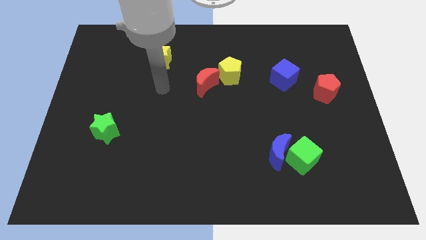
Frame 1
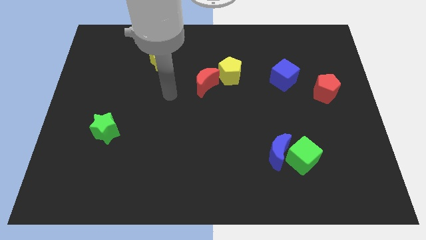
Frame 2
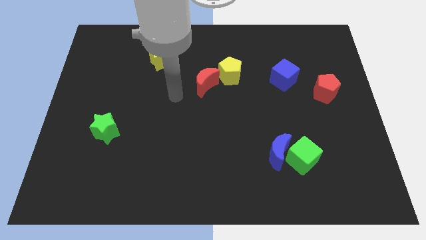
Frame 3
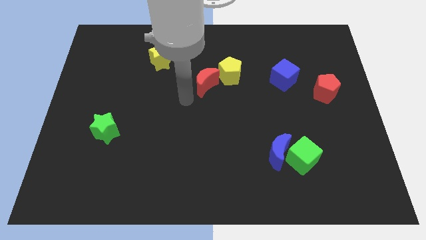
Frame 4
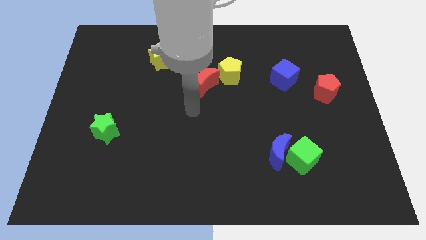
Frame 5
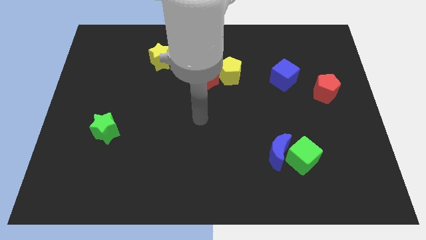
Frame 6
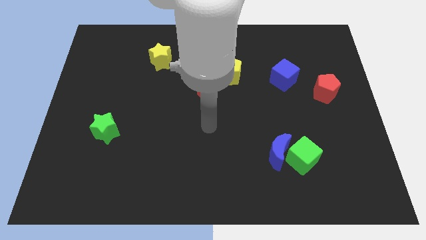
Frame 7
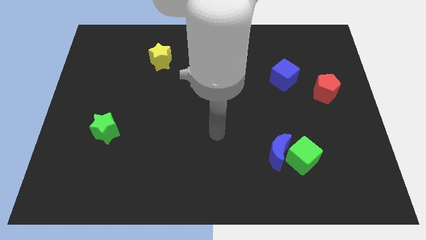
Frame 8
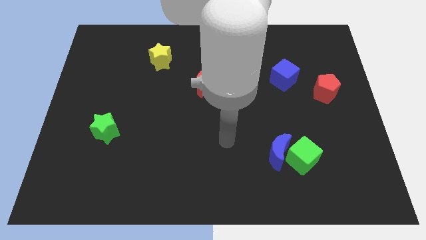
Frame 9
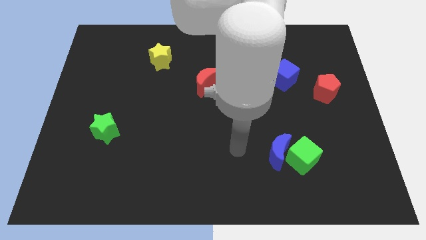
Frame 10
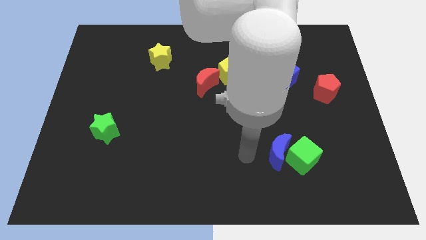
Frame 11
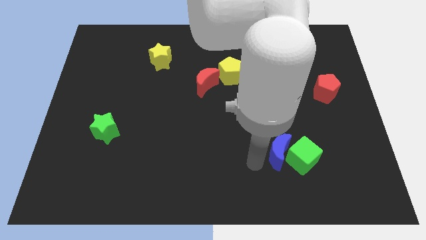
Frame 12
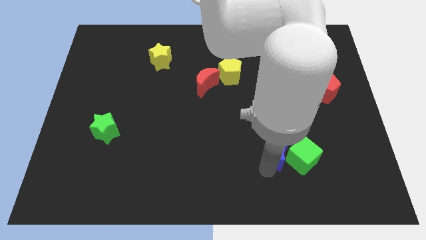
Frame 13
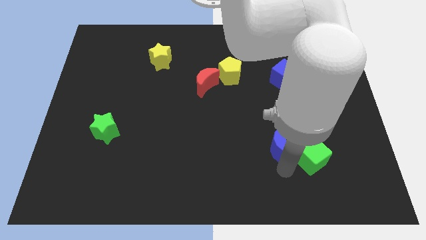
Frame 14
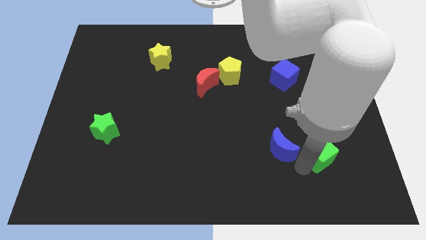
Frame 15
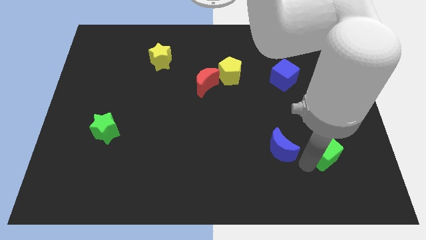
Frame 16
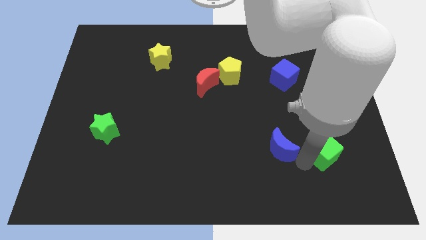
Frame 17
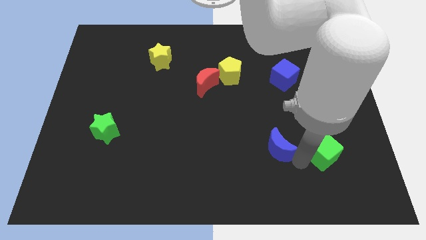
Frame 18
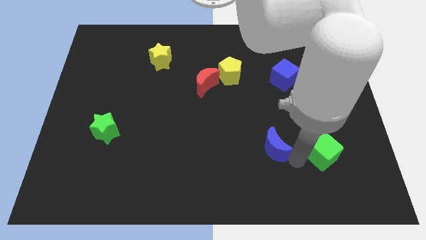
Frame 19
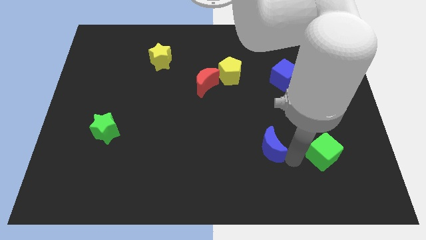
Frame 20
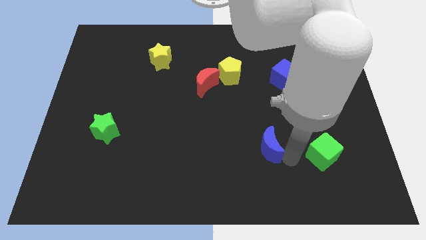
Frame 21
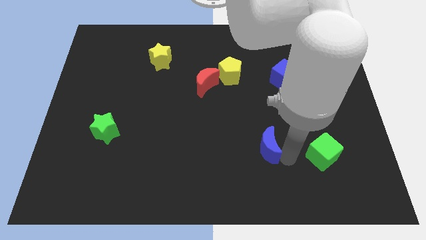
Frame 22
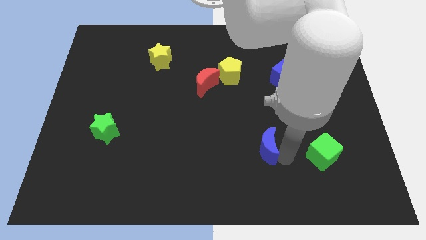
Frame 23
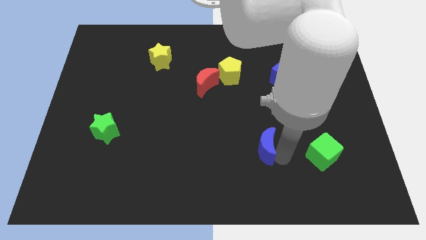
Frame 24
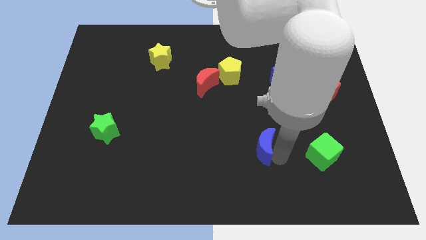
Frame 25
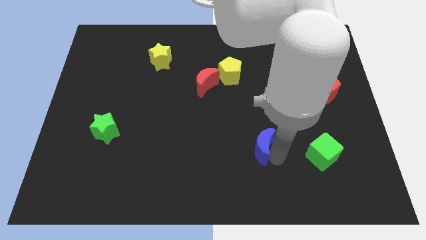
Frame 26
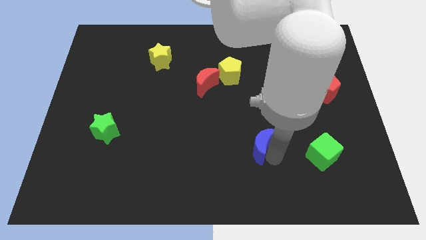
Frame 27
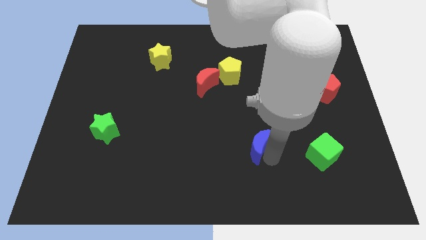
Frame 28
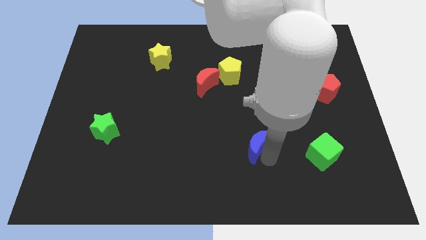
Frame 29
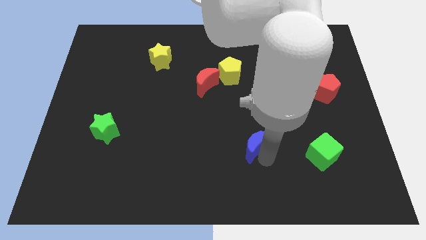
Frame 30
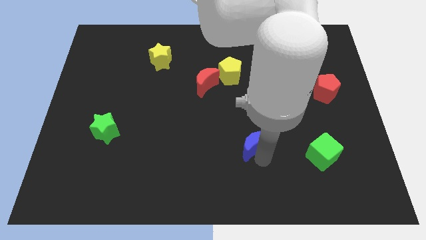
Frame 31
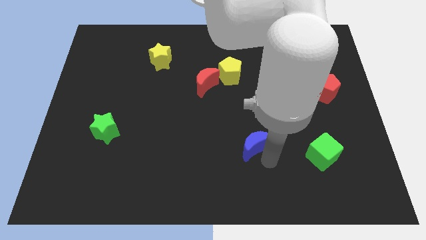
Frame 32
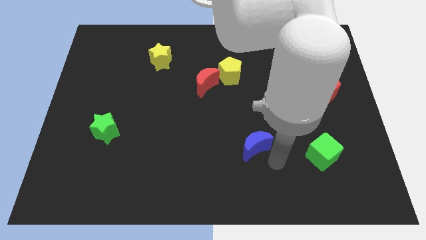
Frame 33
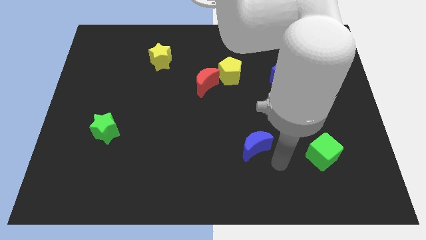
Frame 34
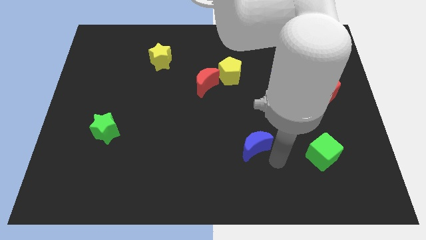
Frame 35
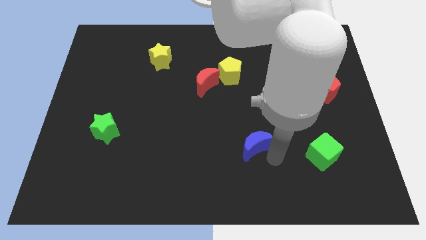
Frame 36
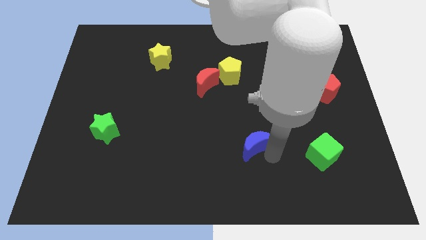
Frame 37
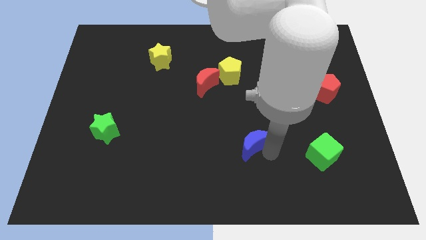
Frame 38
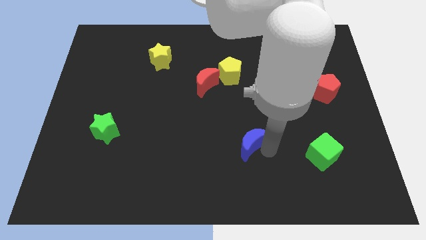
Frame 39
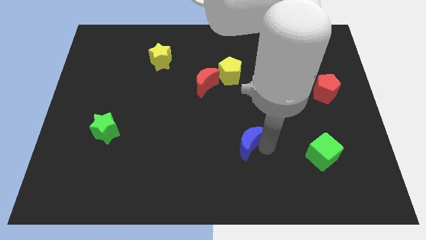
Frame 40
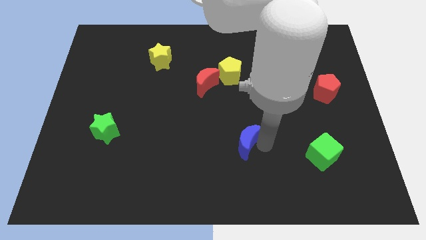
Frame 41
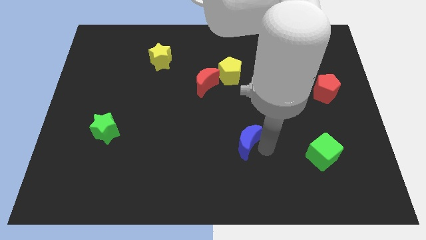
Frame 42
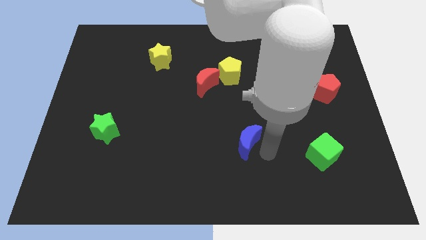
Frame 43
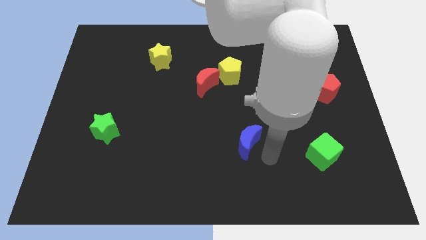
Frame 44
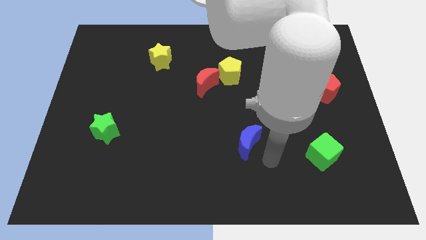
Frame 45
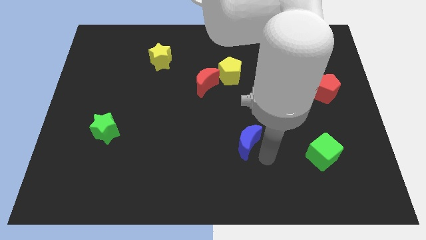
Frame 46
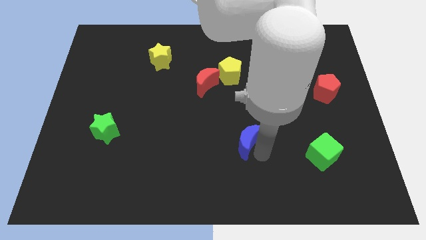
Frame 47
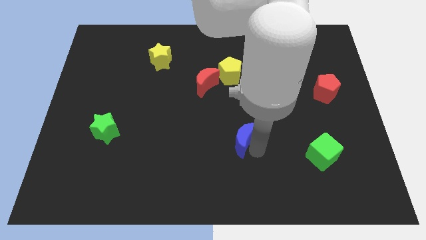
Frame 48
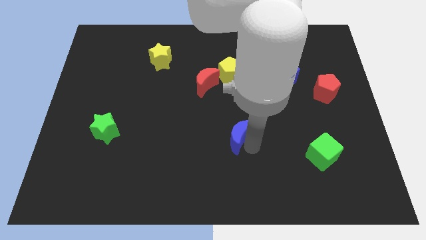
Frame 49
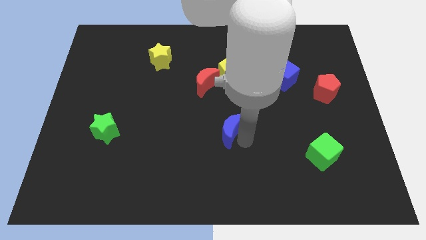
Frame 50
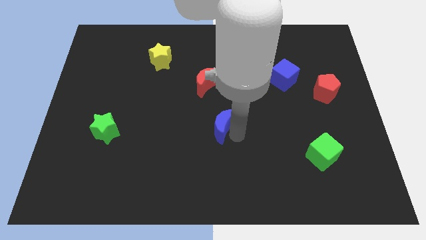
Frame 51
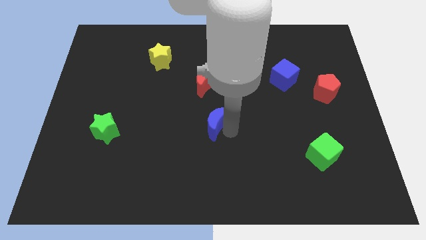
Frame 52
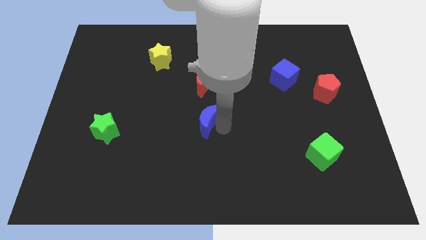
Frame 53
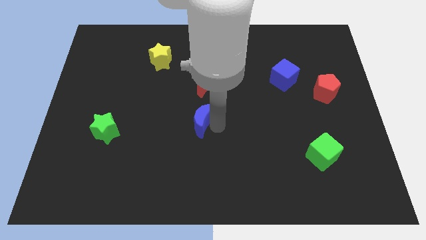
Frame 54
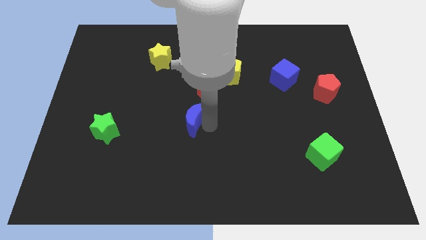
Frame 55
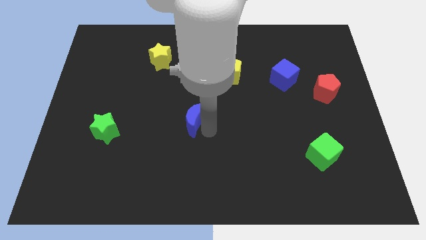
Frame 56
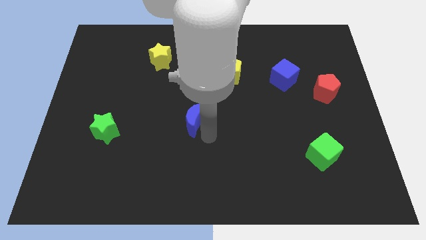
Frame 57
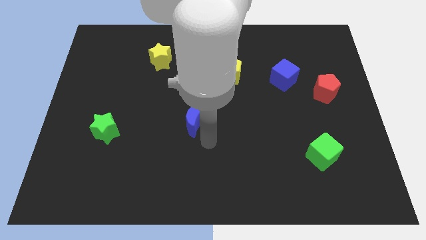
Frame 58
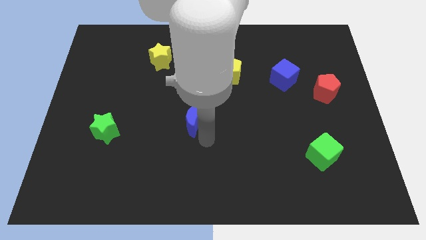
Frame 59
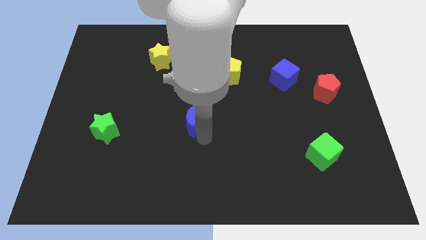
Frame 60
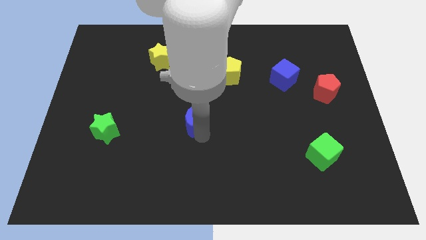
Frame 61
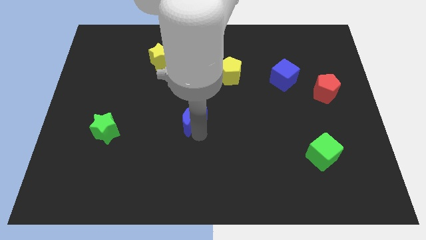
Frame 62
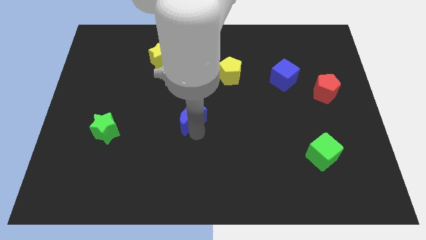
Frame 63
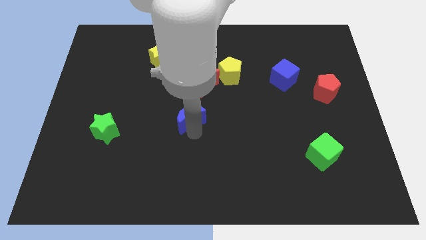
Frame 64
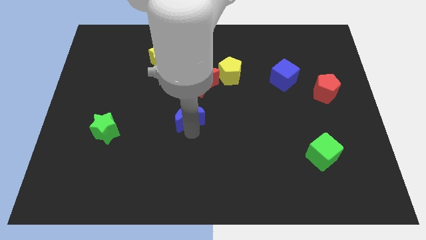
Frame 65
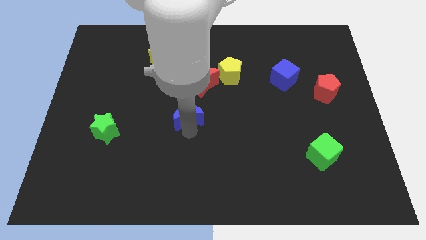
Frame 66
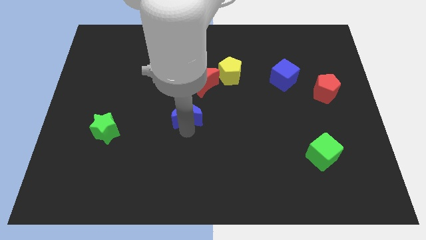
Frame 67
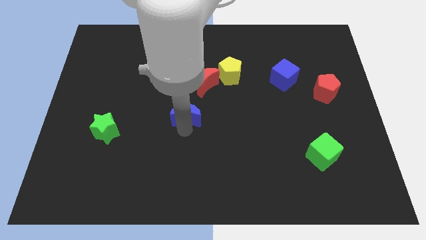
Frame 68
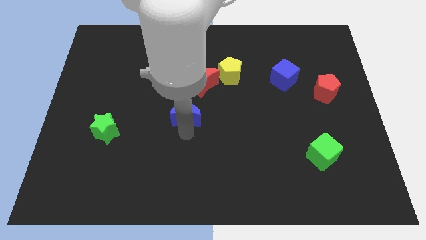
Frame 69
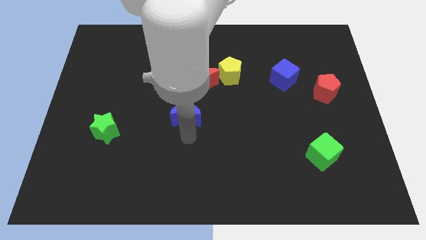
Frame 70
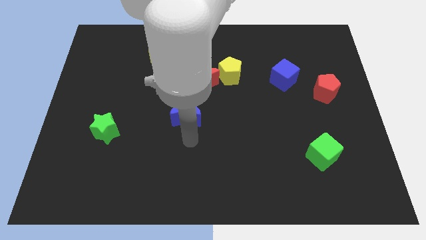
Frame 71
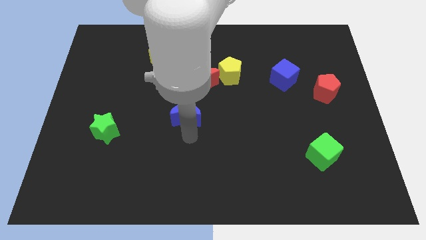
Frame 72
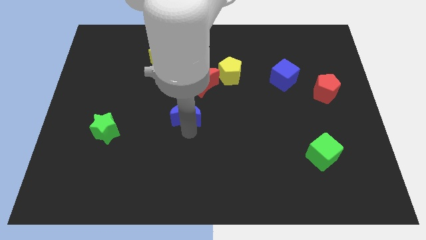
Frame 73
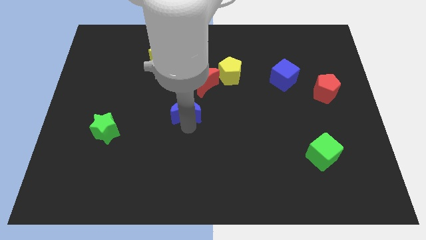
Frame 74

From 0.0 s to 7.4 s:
move the blue moon diagonally upwards and left

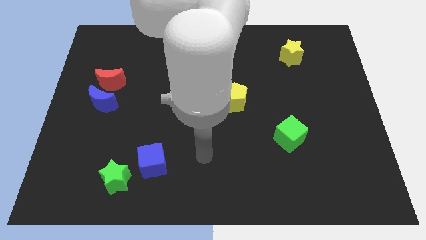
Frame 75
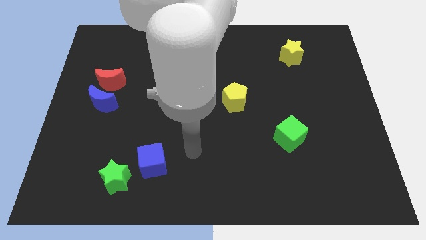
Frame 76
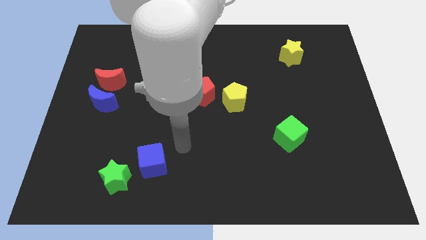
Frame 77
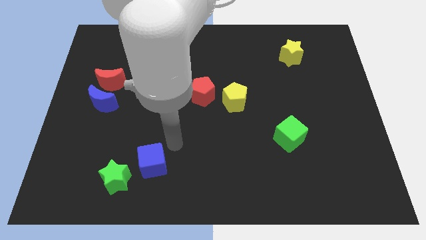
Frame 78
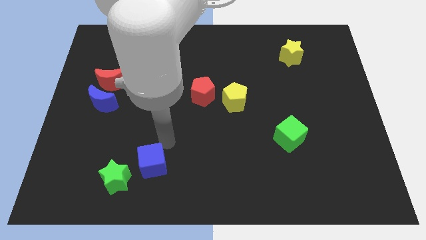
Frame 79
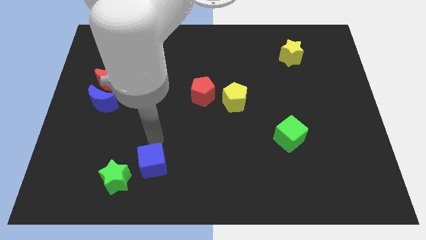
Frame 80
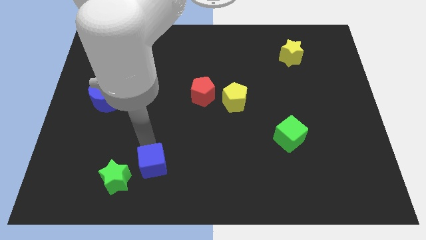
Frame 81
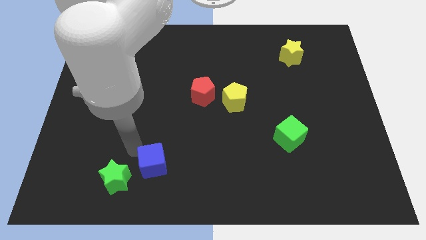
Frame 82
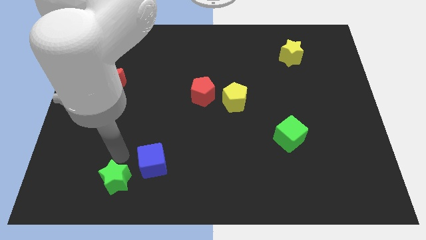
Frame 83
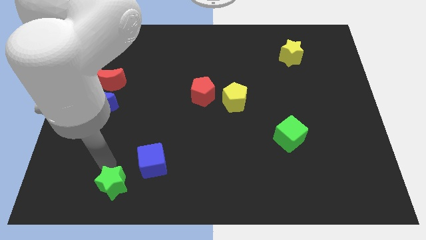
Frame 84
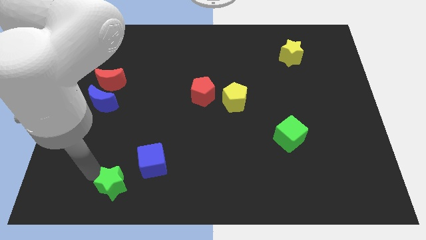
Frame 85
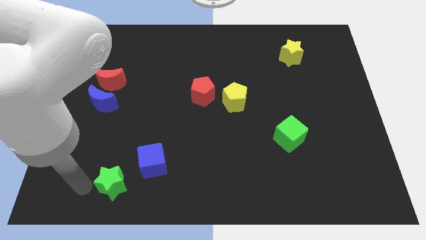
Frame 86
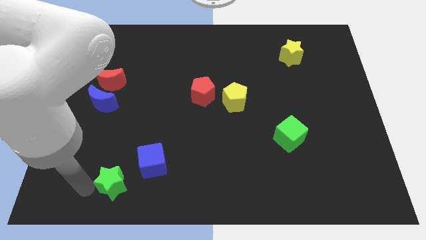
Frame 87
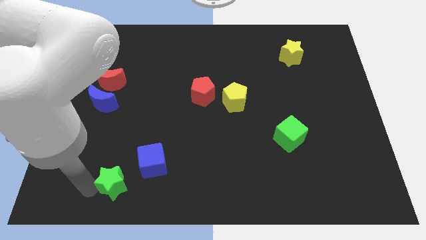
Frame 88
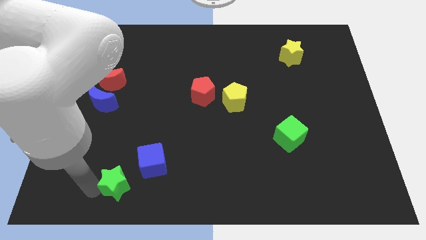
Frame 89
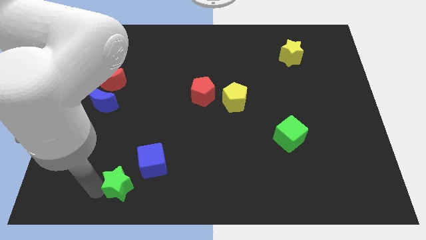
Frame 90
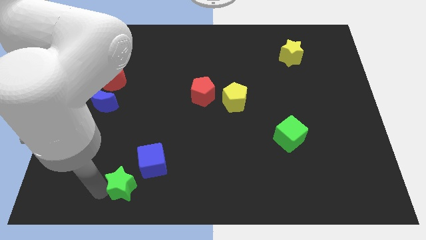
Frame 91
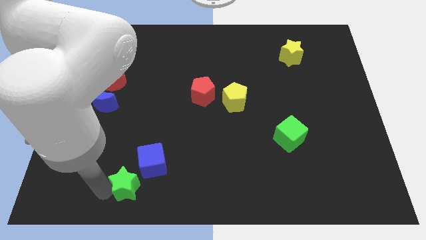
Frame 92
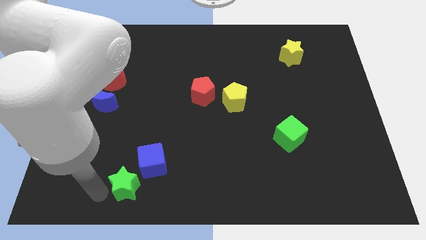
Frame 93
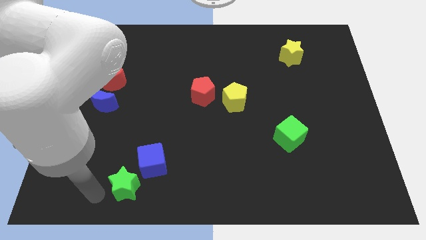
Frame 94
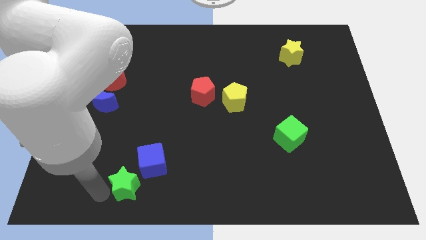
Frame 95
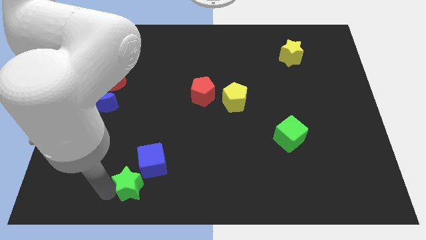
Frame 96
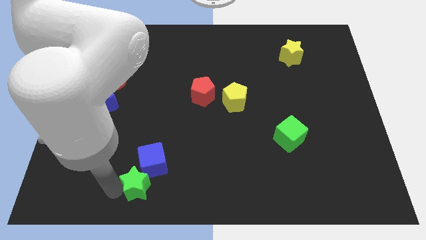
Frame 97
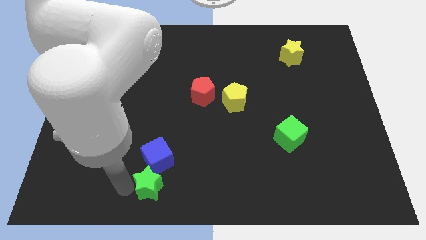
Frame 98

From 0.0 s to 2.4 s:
push the green star a little bit to the right
